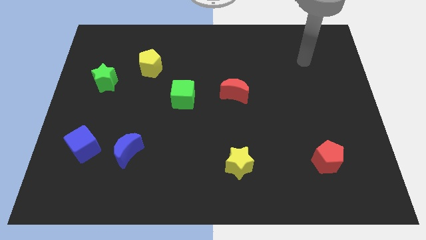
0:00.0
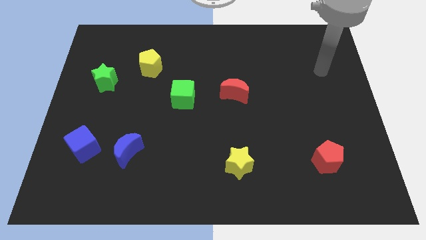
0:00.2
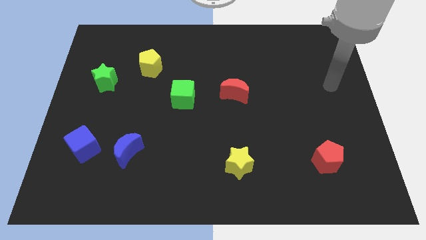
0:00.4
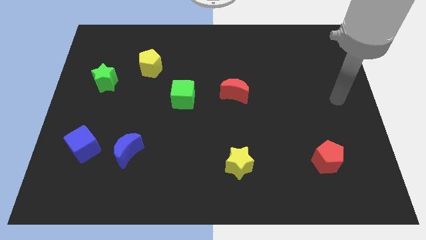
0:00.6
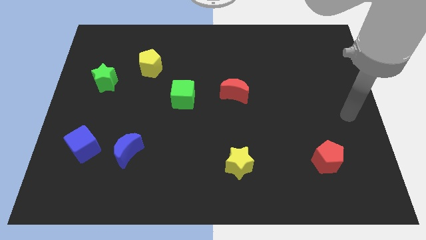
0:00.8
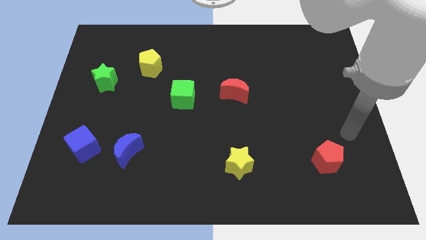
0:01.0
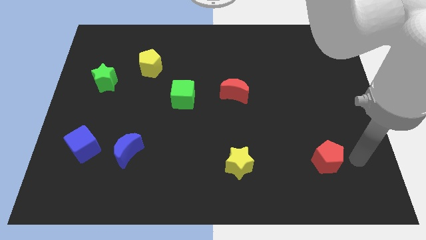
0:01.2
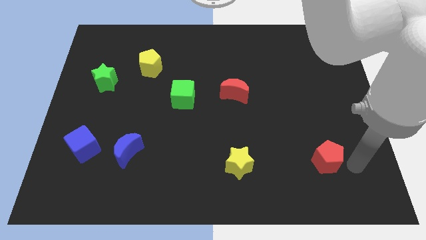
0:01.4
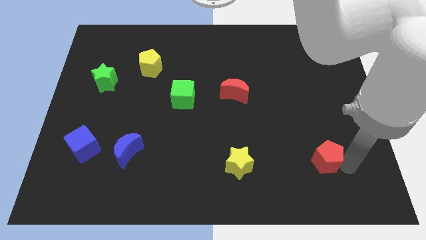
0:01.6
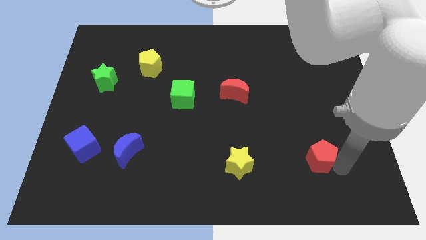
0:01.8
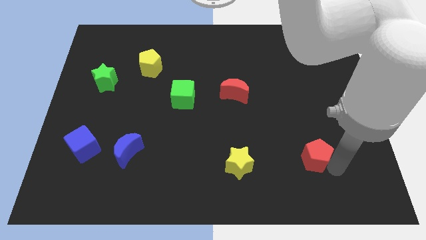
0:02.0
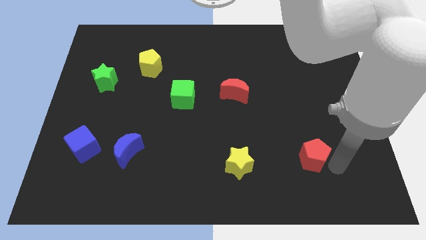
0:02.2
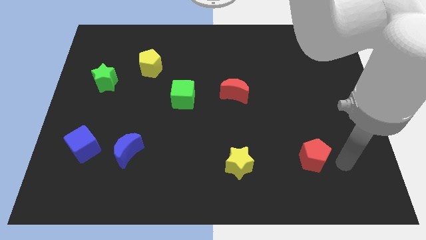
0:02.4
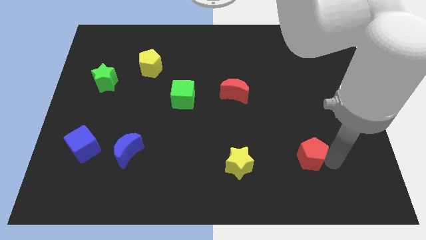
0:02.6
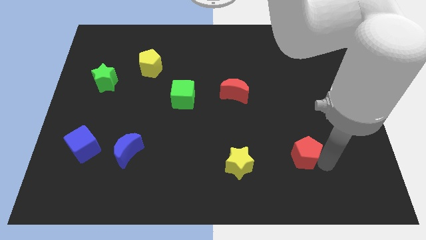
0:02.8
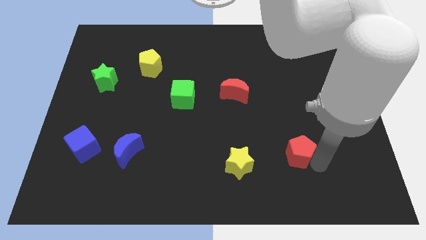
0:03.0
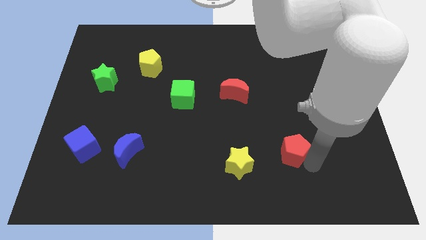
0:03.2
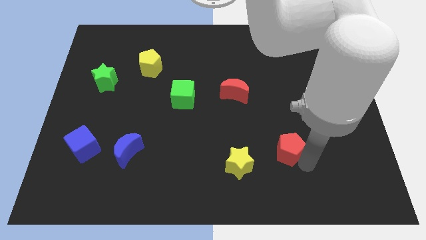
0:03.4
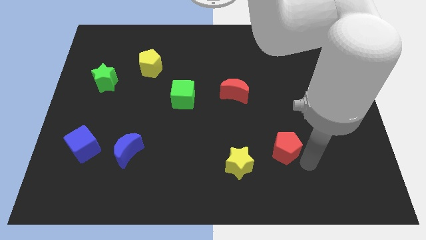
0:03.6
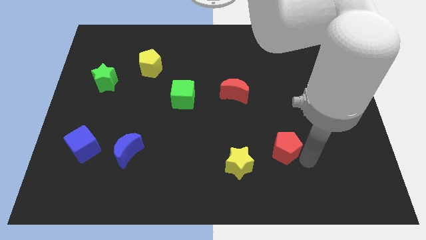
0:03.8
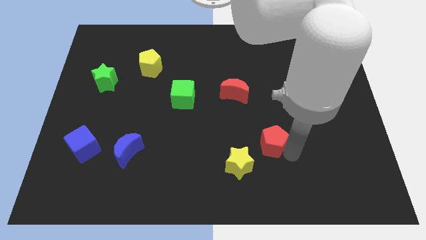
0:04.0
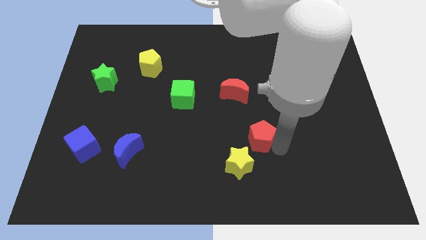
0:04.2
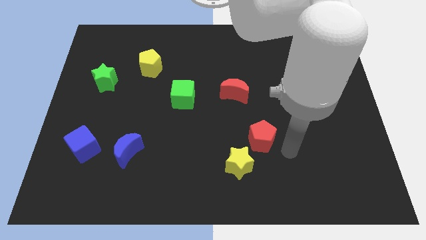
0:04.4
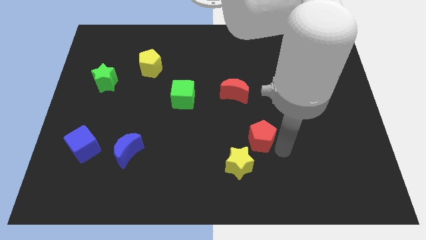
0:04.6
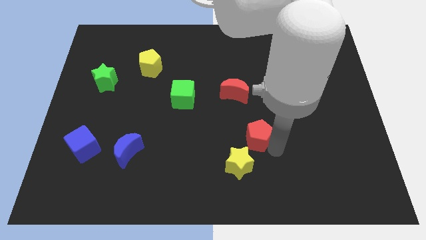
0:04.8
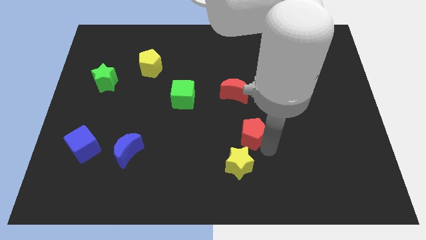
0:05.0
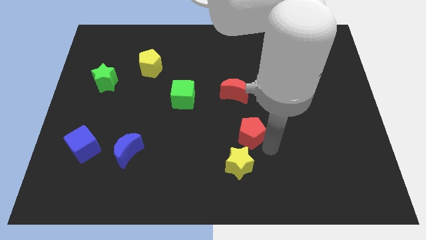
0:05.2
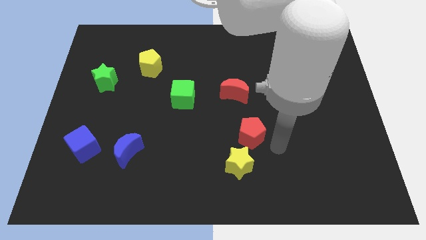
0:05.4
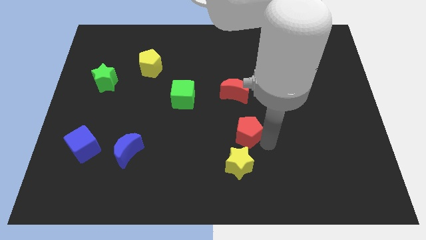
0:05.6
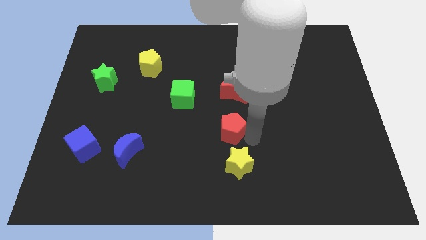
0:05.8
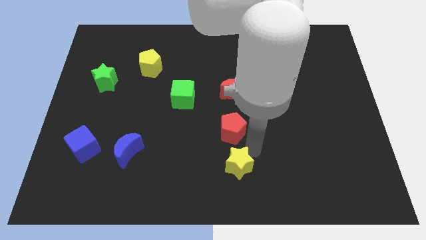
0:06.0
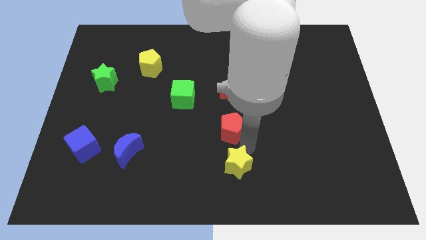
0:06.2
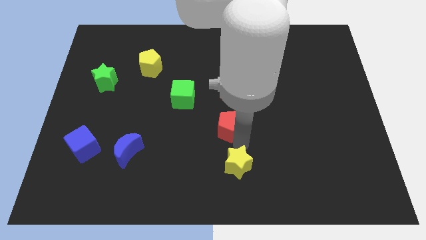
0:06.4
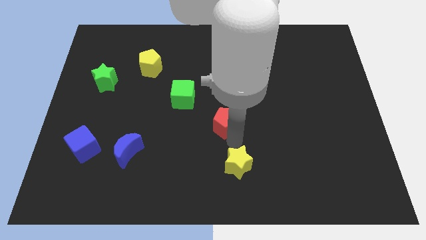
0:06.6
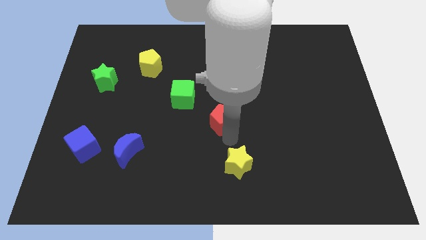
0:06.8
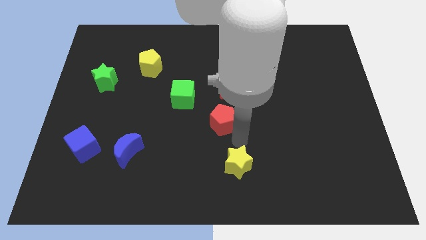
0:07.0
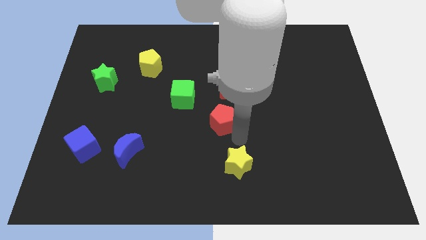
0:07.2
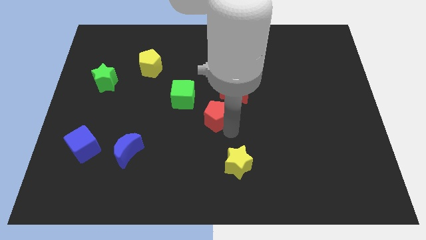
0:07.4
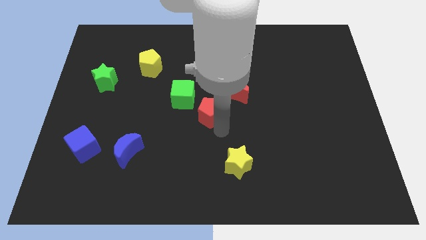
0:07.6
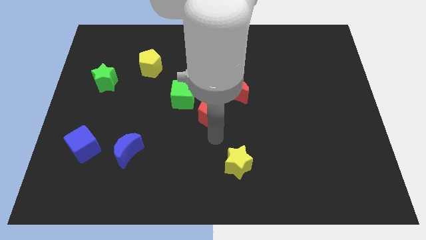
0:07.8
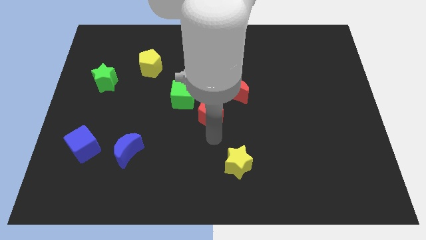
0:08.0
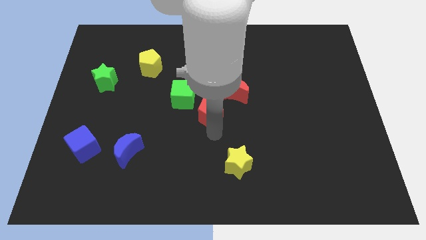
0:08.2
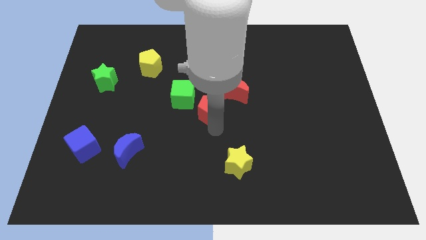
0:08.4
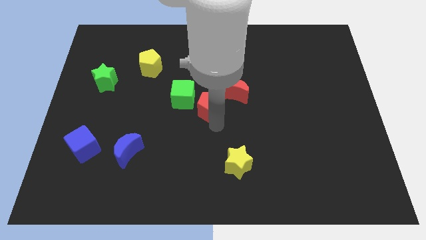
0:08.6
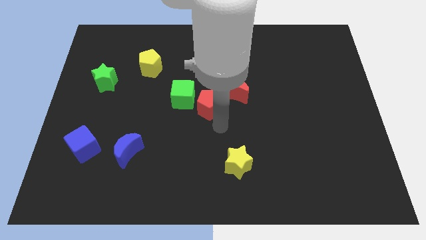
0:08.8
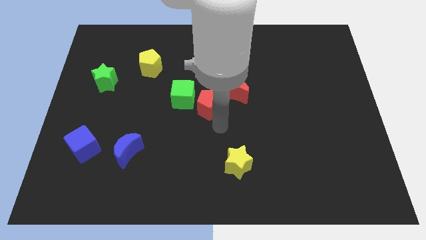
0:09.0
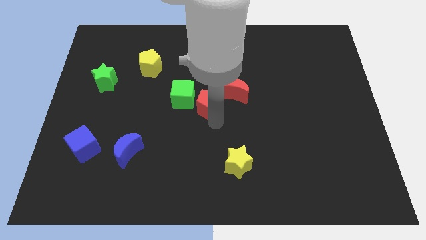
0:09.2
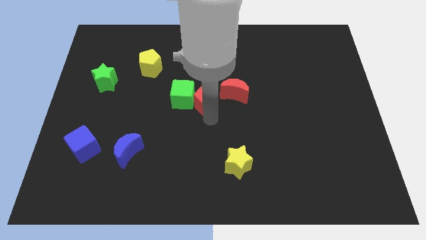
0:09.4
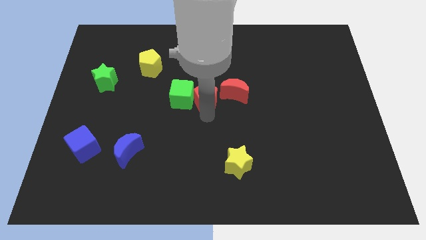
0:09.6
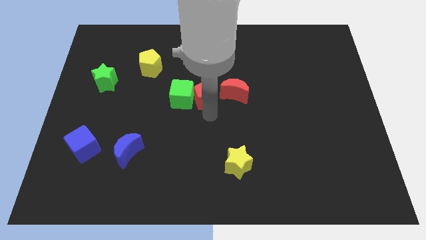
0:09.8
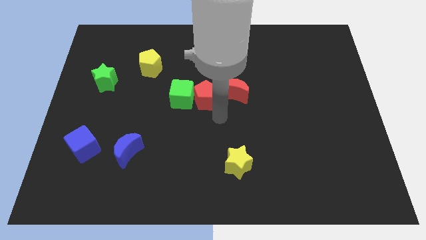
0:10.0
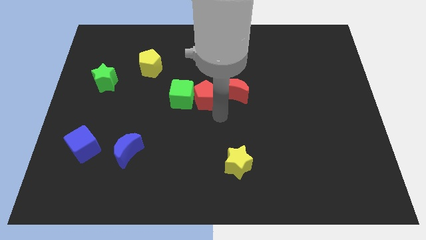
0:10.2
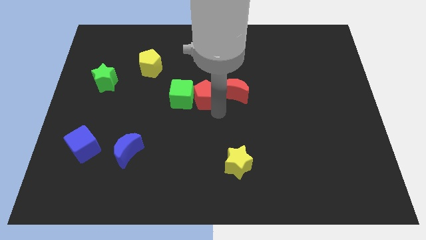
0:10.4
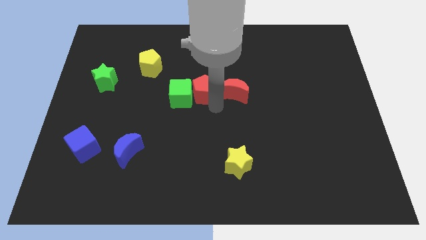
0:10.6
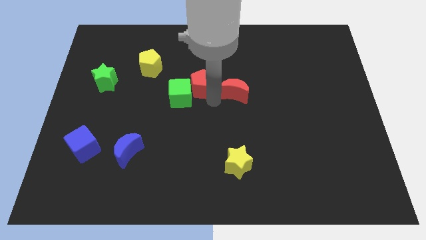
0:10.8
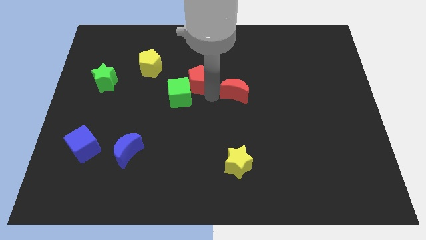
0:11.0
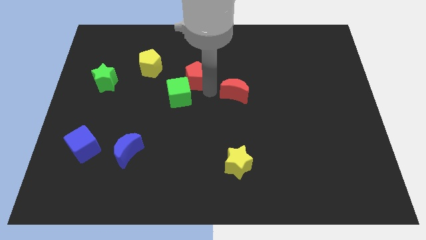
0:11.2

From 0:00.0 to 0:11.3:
slide the red pentagon just right of the yellow pentagon

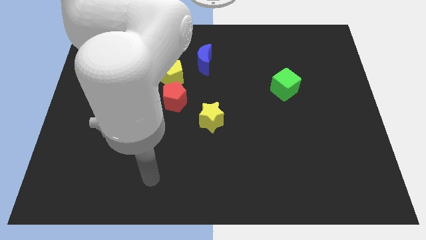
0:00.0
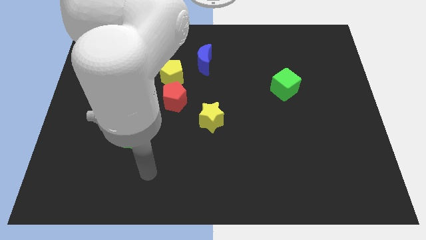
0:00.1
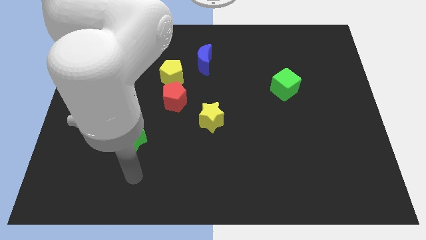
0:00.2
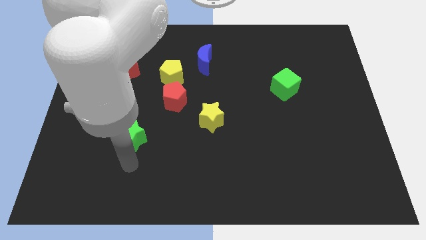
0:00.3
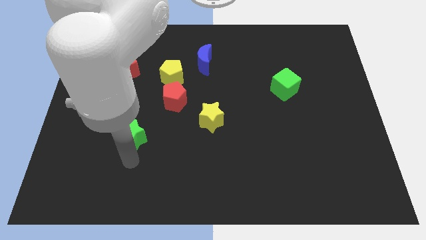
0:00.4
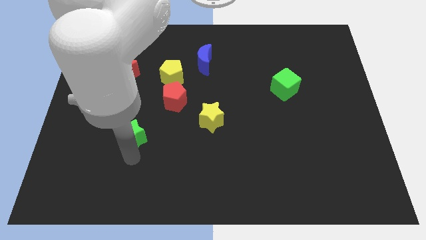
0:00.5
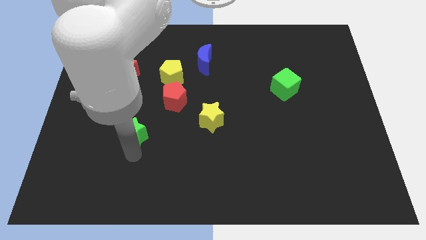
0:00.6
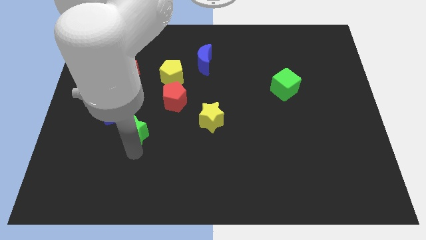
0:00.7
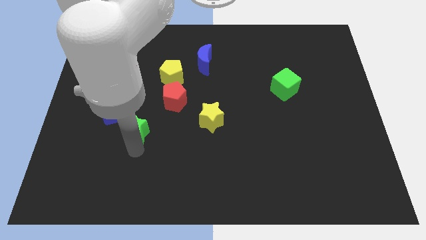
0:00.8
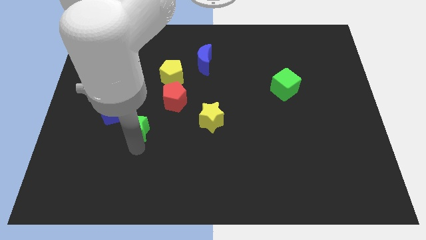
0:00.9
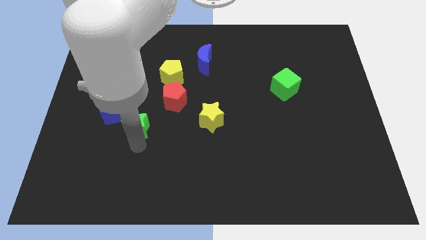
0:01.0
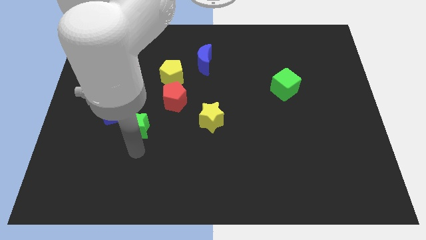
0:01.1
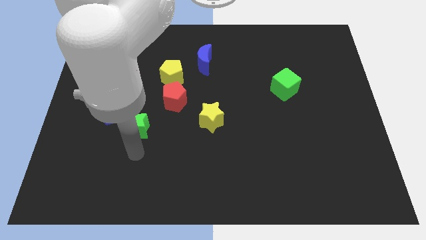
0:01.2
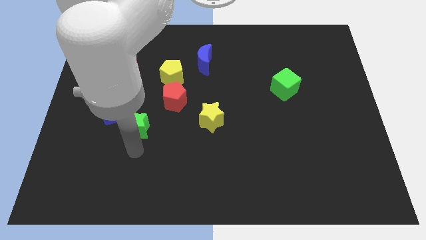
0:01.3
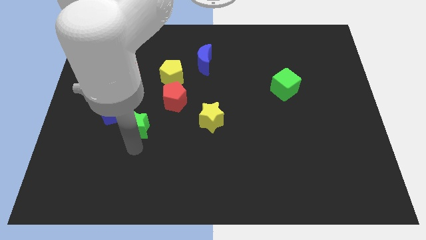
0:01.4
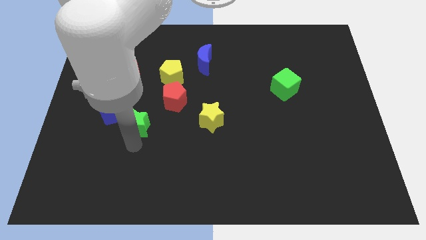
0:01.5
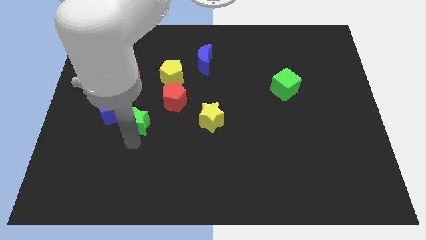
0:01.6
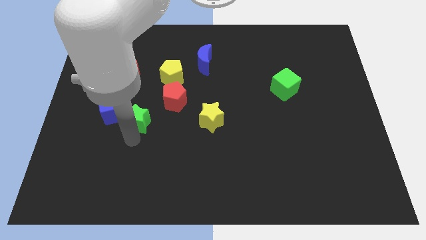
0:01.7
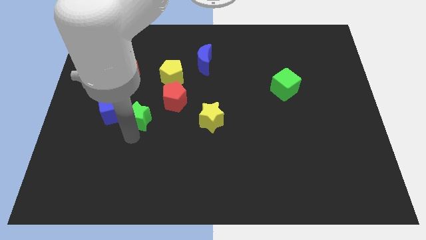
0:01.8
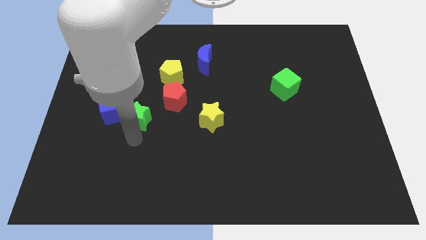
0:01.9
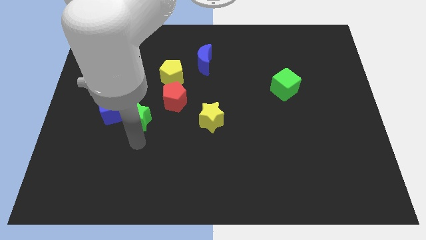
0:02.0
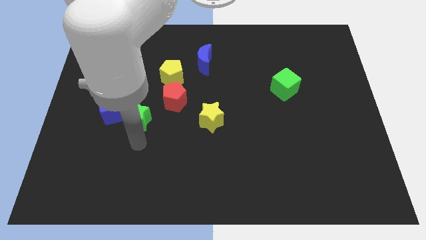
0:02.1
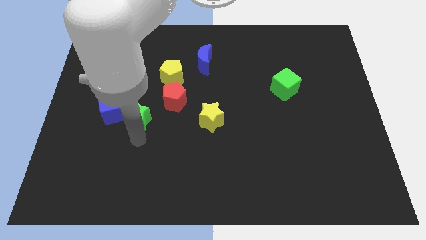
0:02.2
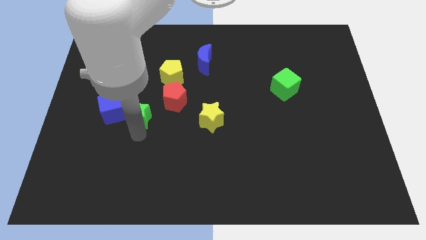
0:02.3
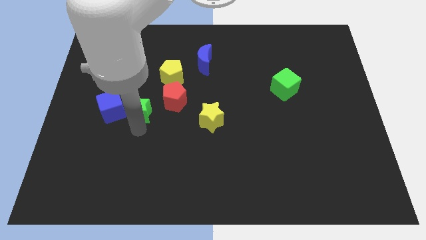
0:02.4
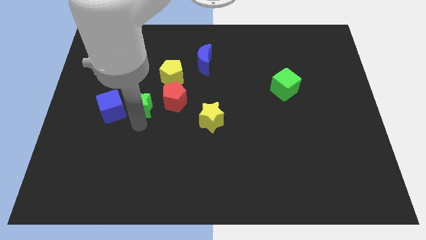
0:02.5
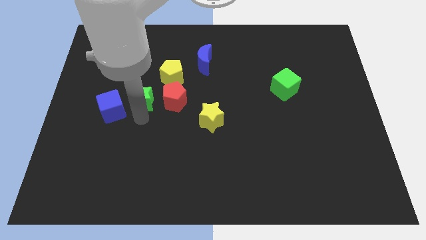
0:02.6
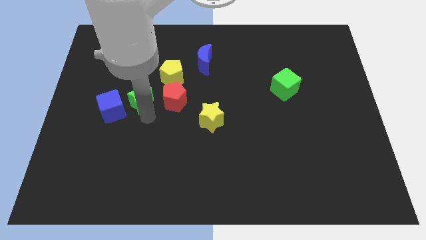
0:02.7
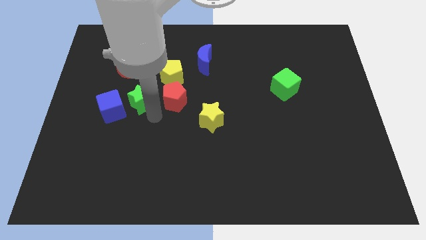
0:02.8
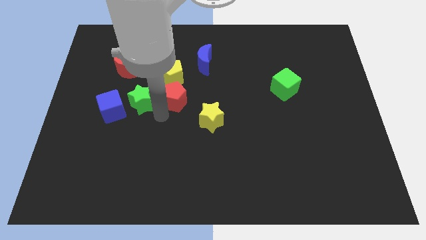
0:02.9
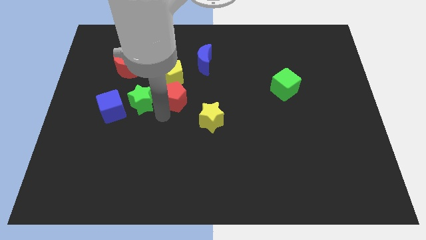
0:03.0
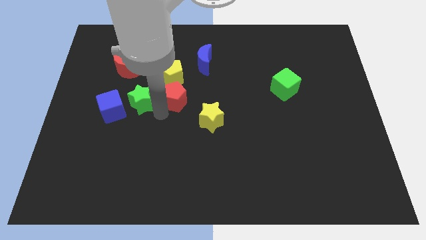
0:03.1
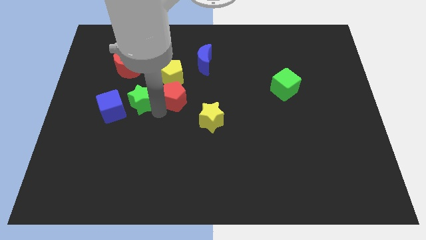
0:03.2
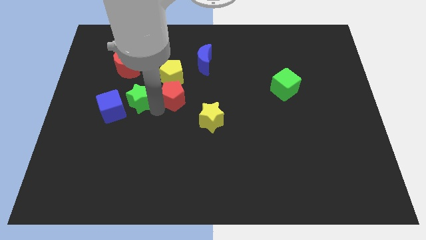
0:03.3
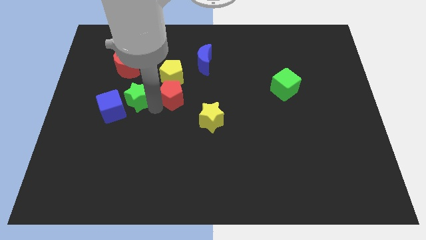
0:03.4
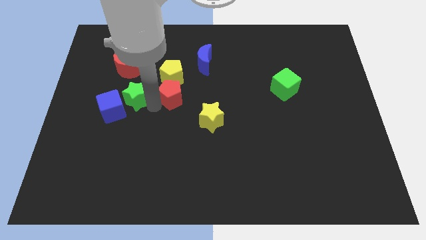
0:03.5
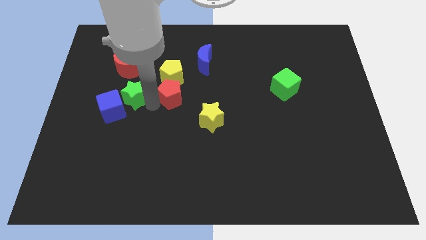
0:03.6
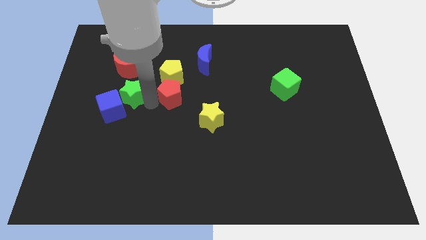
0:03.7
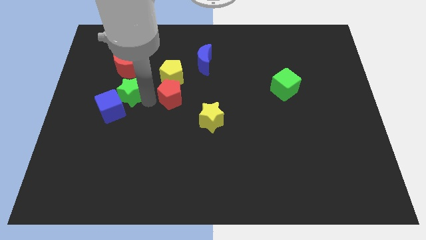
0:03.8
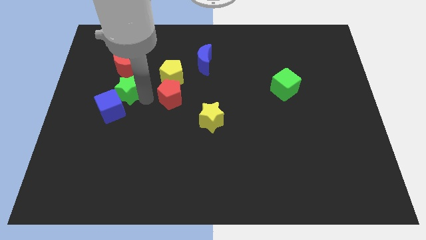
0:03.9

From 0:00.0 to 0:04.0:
put the green star to the left of the yellow pentagon
